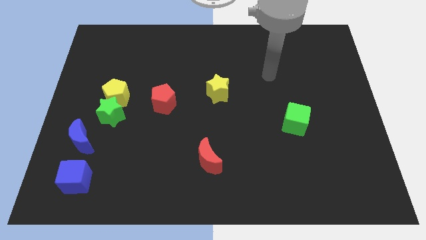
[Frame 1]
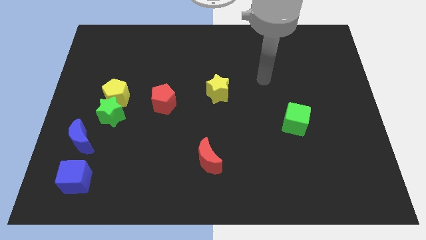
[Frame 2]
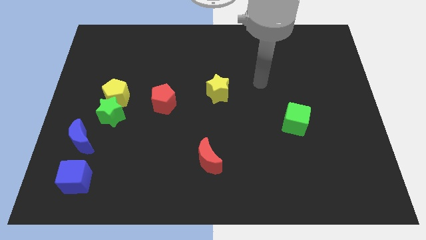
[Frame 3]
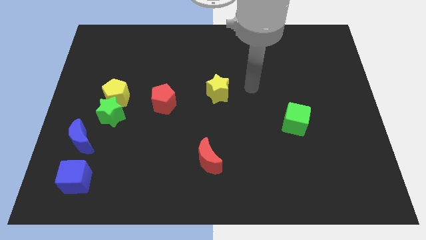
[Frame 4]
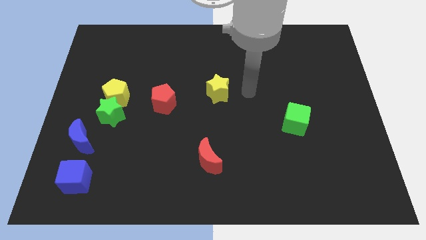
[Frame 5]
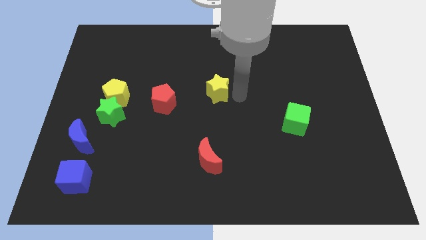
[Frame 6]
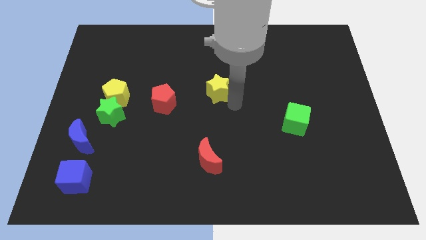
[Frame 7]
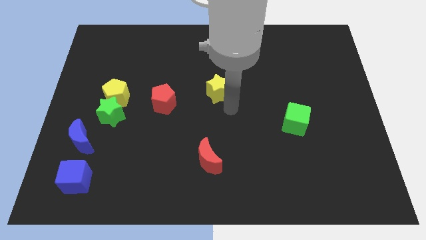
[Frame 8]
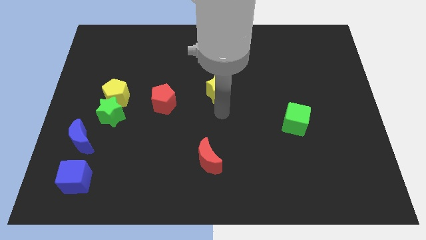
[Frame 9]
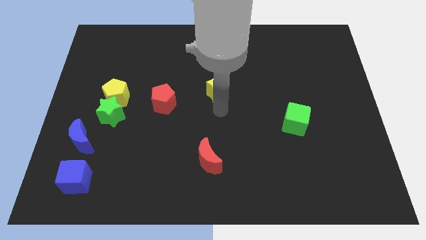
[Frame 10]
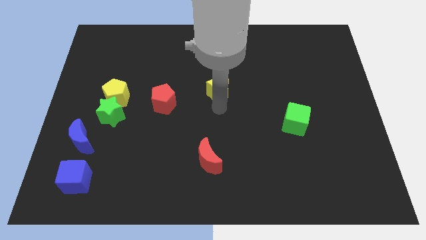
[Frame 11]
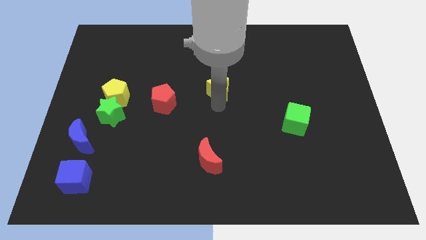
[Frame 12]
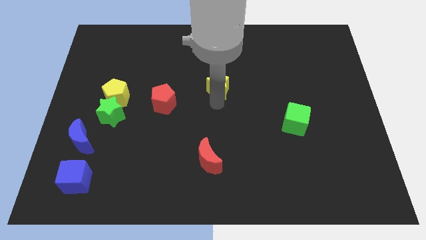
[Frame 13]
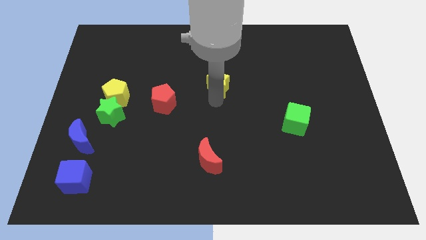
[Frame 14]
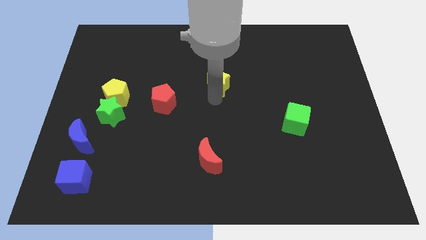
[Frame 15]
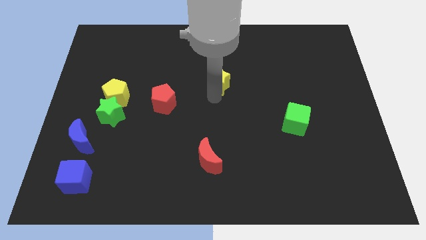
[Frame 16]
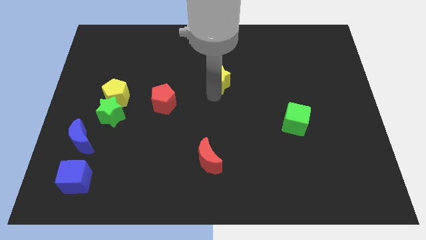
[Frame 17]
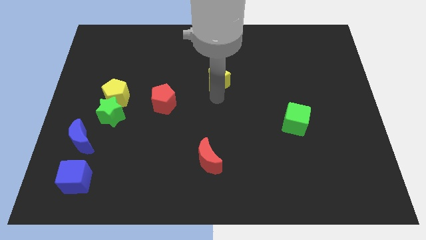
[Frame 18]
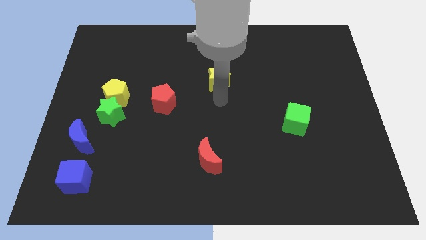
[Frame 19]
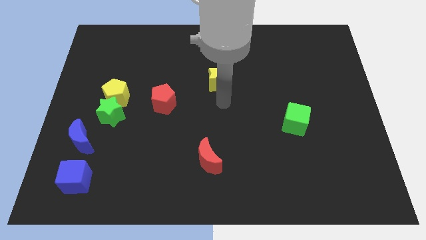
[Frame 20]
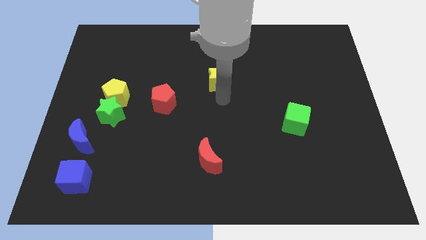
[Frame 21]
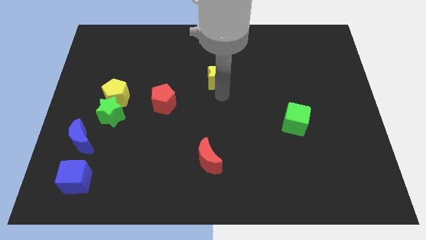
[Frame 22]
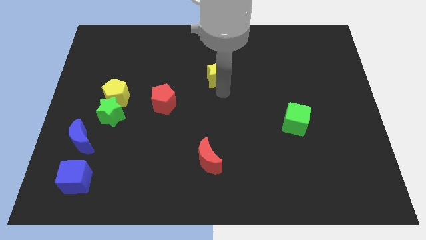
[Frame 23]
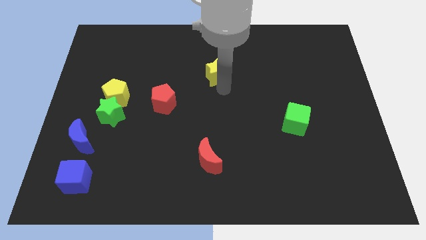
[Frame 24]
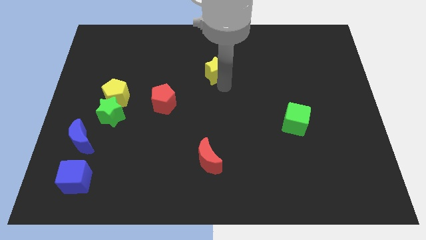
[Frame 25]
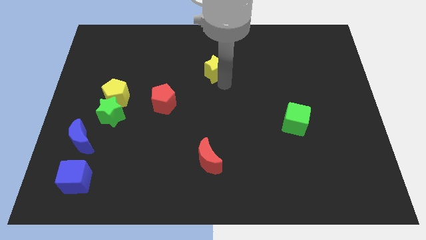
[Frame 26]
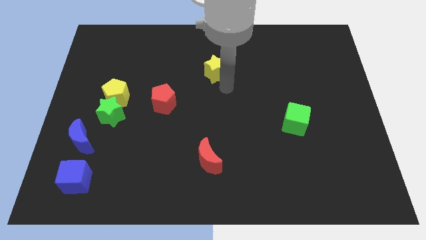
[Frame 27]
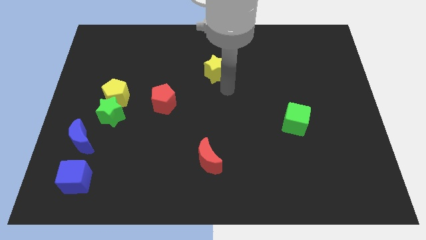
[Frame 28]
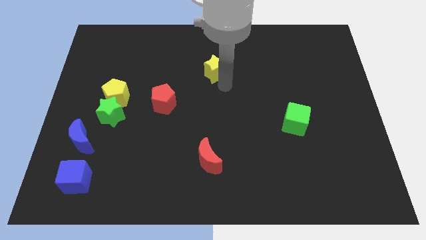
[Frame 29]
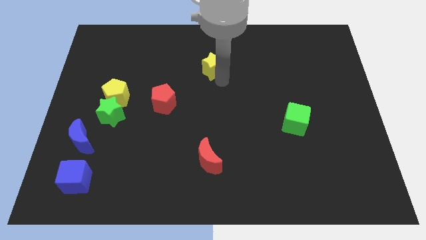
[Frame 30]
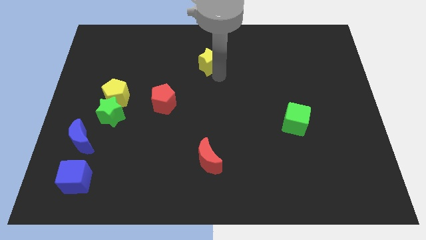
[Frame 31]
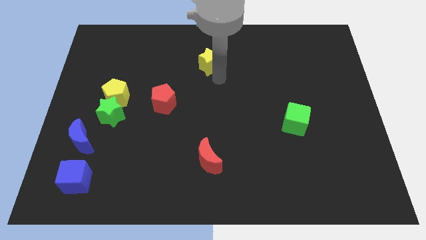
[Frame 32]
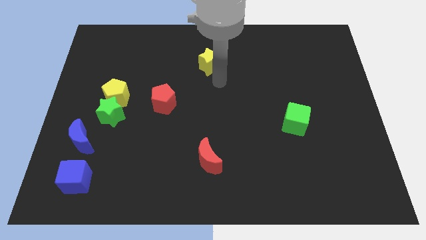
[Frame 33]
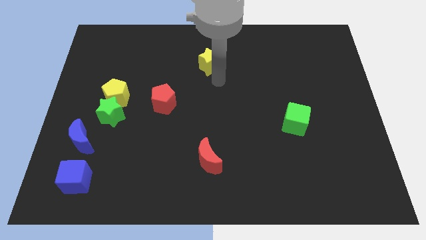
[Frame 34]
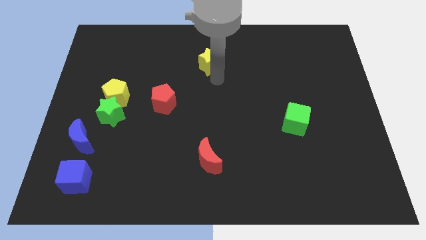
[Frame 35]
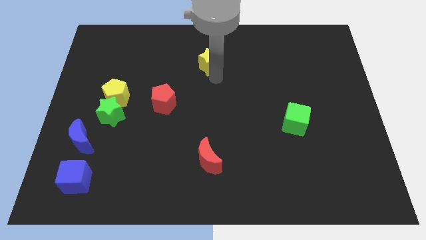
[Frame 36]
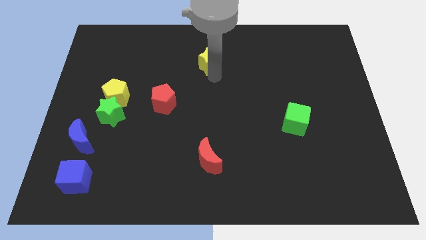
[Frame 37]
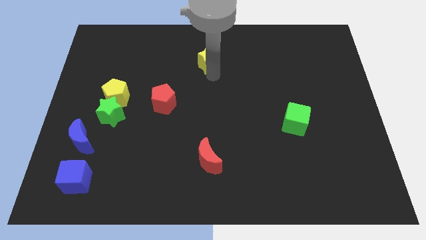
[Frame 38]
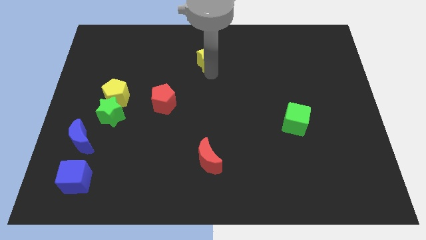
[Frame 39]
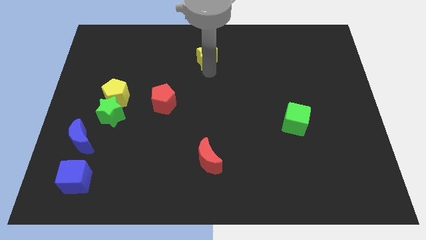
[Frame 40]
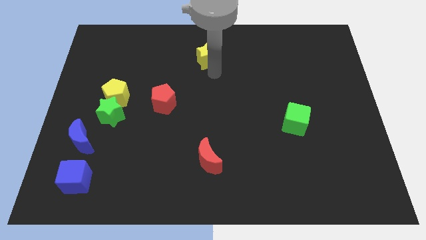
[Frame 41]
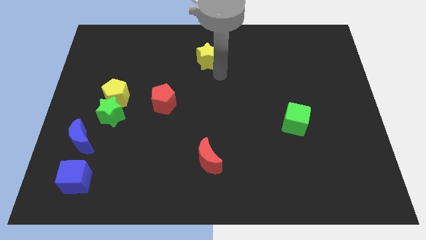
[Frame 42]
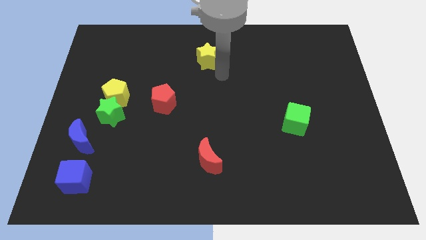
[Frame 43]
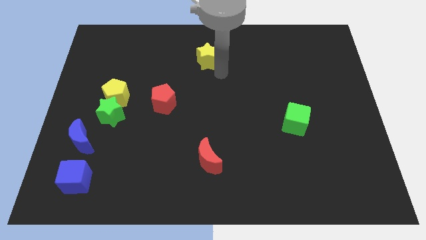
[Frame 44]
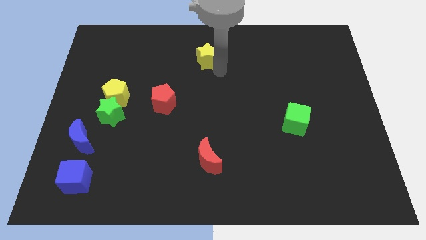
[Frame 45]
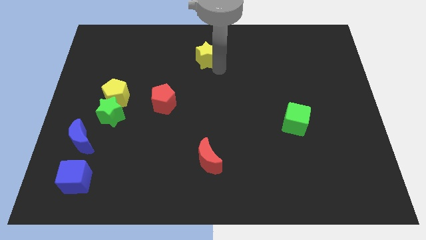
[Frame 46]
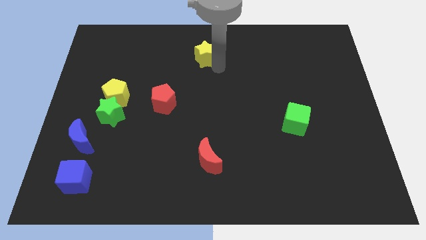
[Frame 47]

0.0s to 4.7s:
put the yellow star to the top

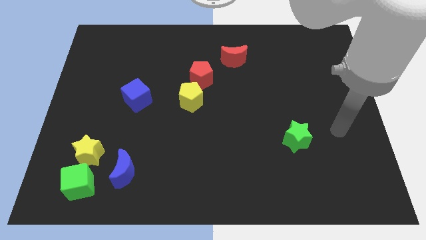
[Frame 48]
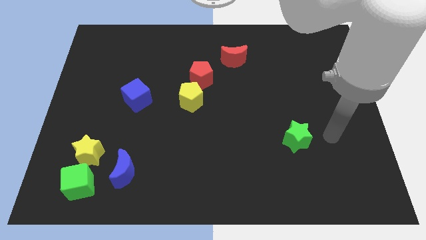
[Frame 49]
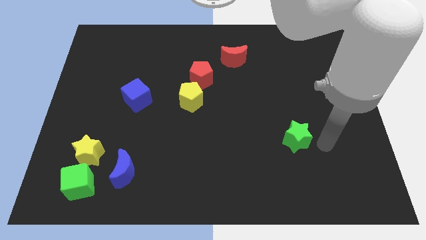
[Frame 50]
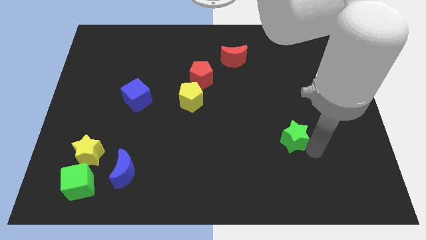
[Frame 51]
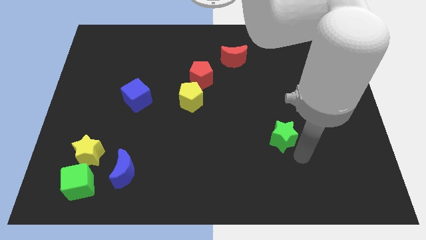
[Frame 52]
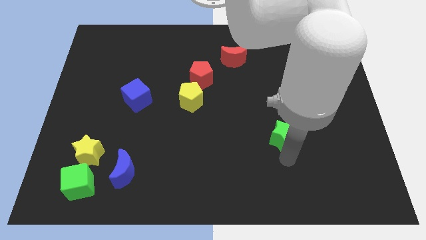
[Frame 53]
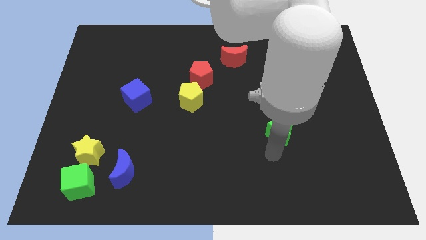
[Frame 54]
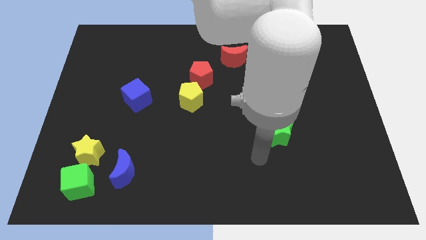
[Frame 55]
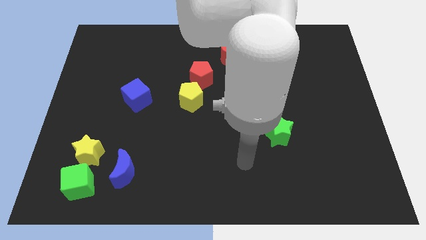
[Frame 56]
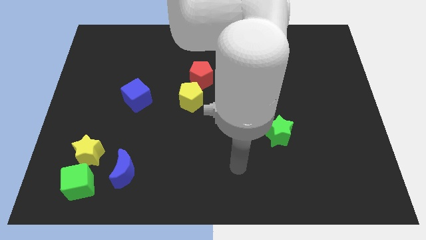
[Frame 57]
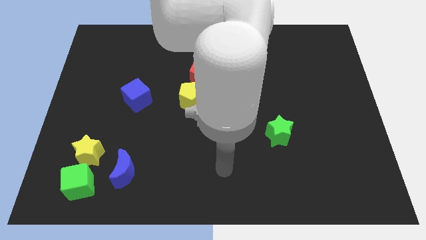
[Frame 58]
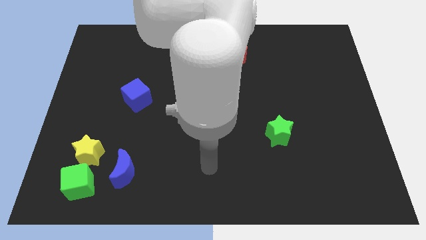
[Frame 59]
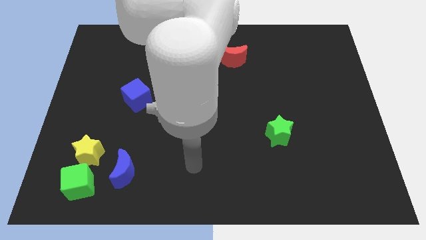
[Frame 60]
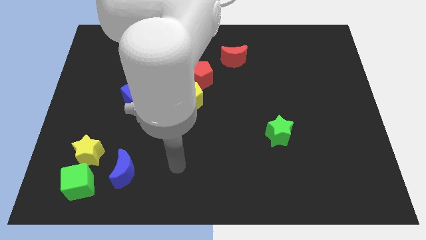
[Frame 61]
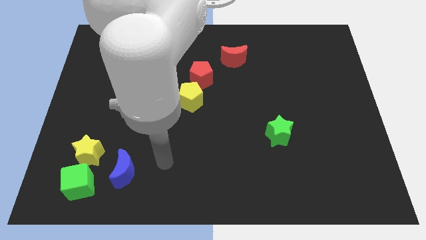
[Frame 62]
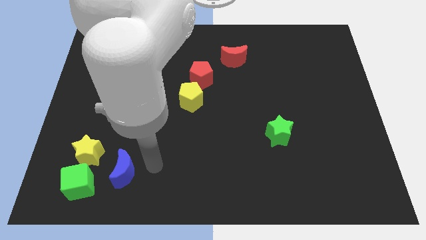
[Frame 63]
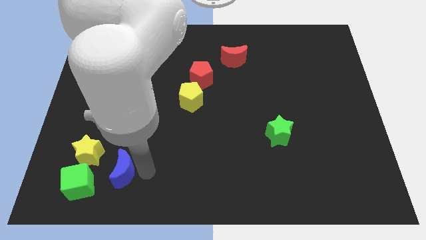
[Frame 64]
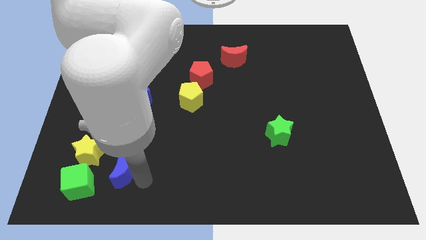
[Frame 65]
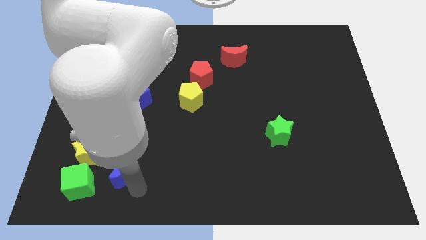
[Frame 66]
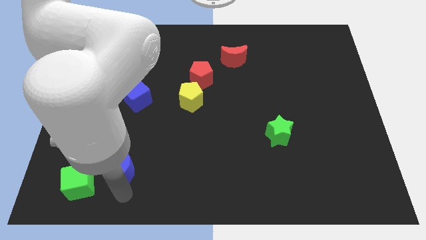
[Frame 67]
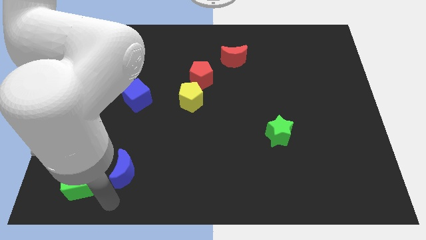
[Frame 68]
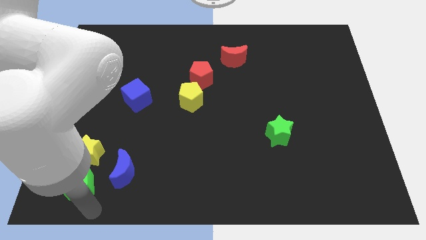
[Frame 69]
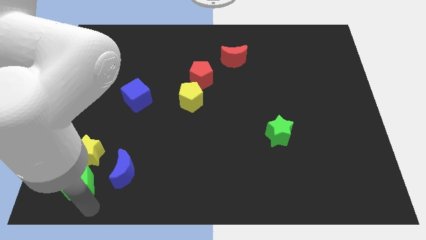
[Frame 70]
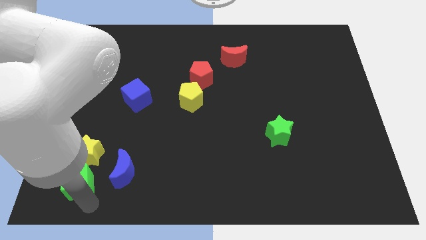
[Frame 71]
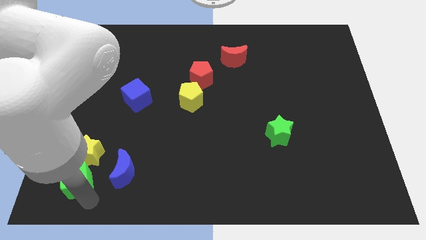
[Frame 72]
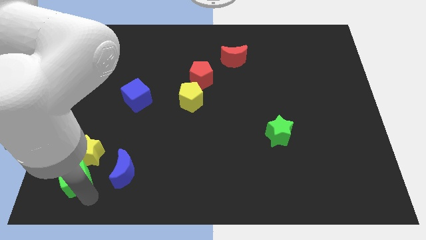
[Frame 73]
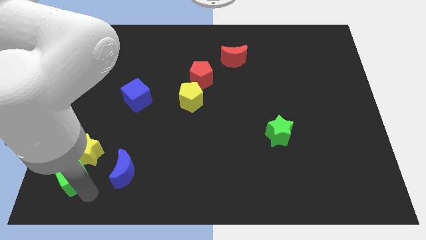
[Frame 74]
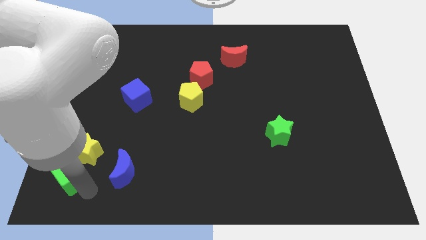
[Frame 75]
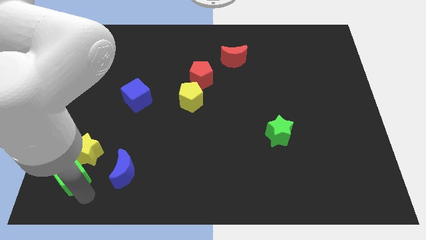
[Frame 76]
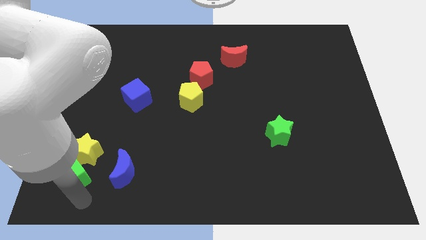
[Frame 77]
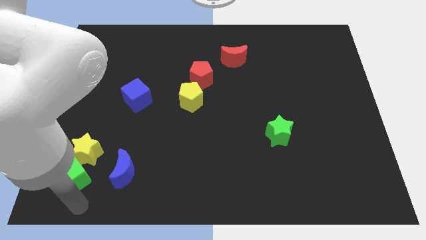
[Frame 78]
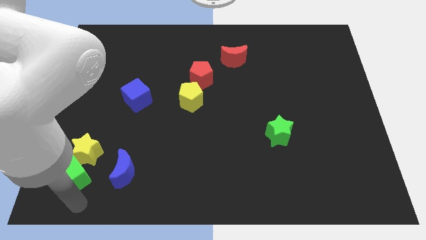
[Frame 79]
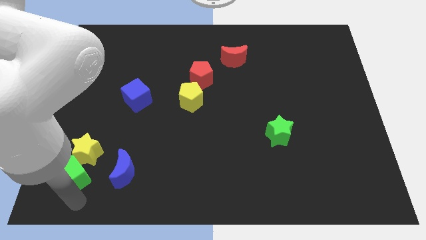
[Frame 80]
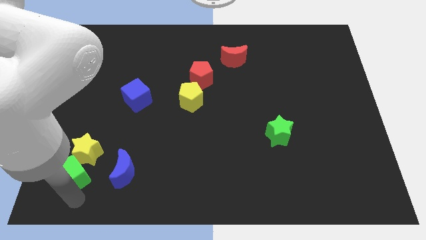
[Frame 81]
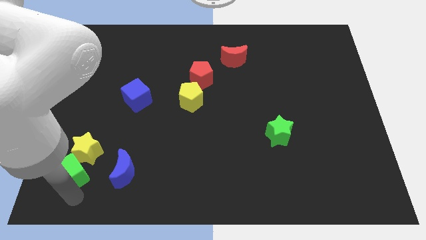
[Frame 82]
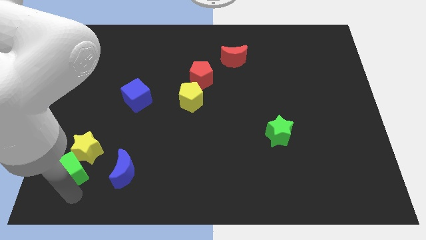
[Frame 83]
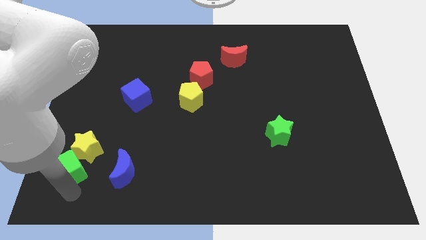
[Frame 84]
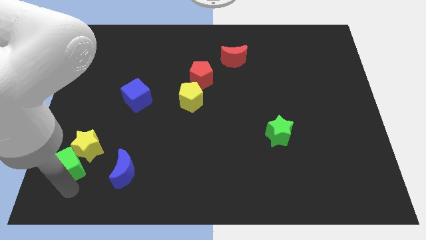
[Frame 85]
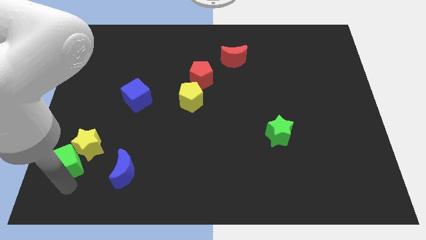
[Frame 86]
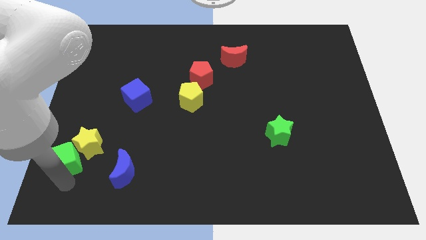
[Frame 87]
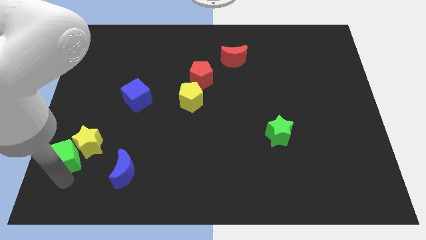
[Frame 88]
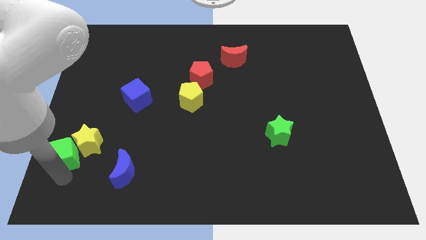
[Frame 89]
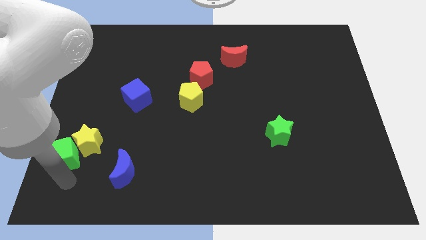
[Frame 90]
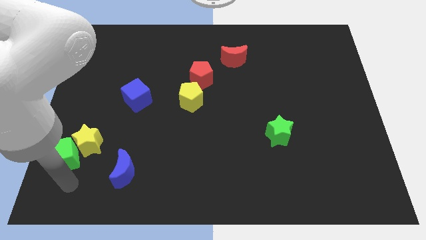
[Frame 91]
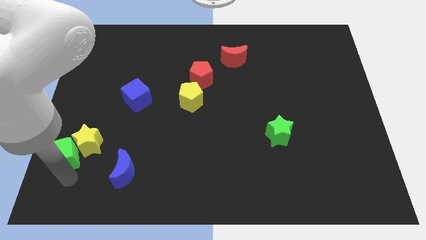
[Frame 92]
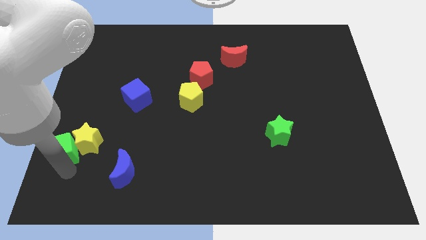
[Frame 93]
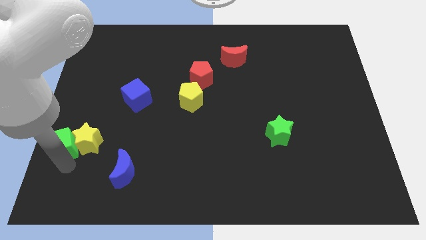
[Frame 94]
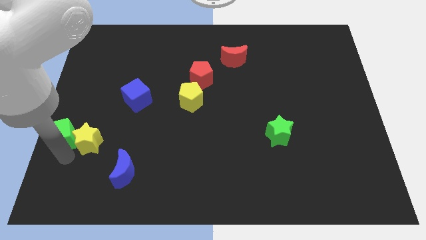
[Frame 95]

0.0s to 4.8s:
move the green cube to the left side
